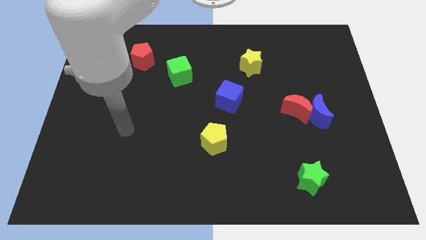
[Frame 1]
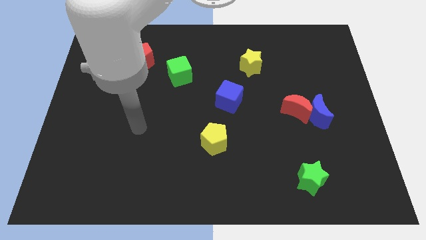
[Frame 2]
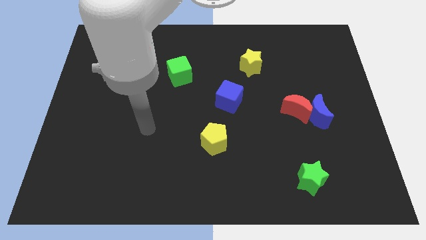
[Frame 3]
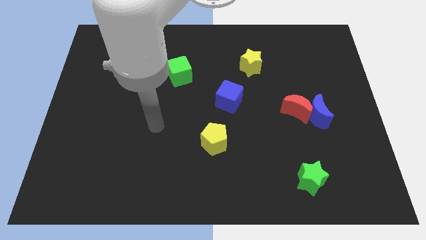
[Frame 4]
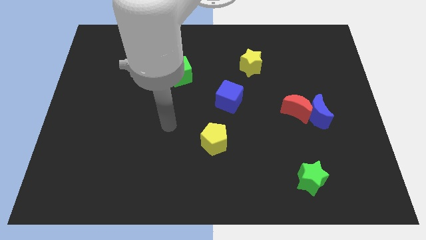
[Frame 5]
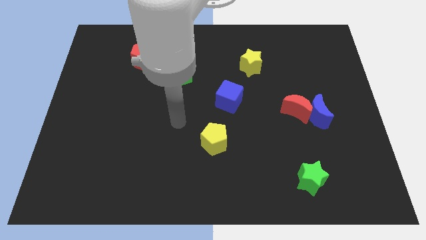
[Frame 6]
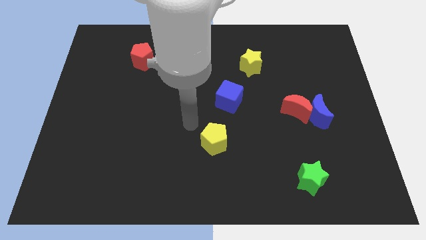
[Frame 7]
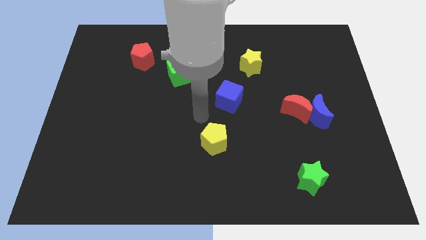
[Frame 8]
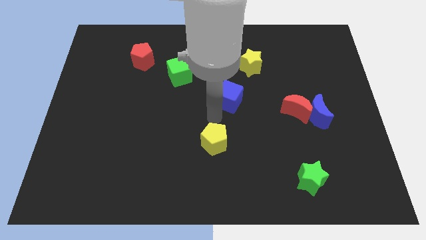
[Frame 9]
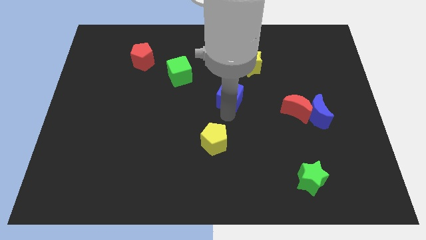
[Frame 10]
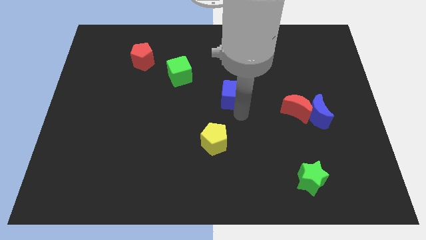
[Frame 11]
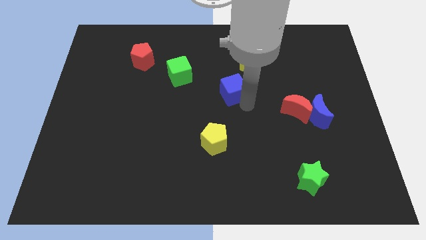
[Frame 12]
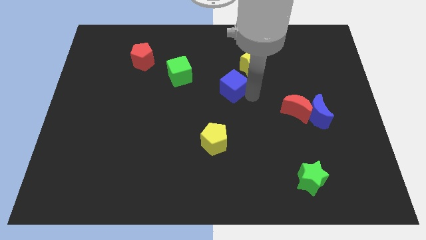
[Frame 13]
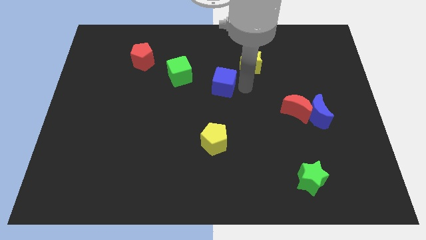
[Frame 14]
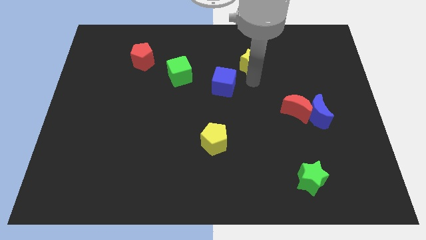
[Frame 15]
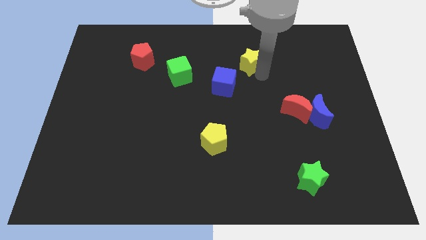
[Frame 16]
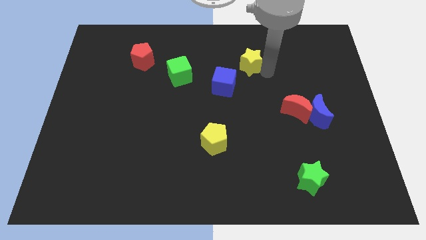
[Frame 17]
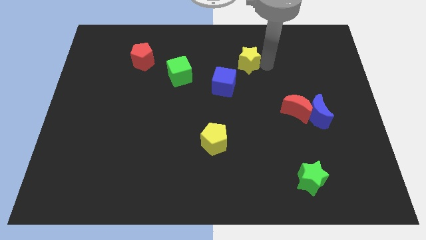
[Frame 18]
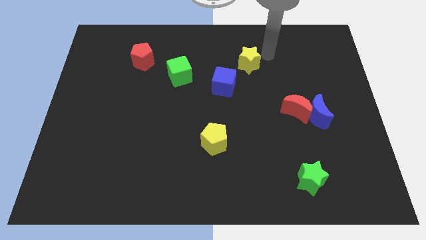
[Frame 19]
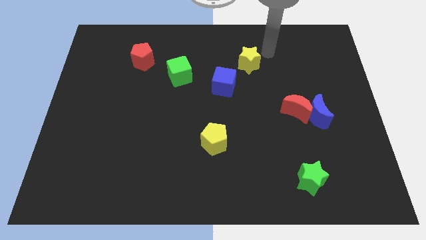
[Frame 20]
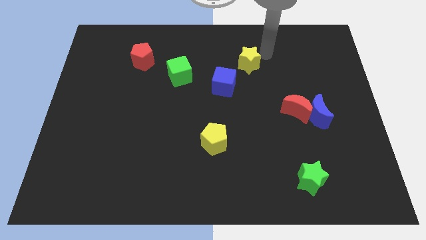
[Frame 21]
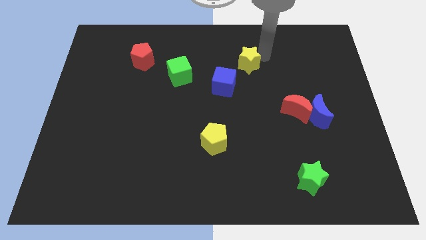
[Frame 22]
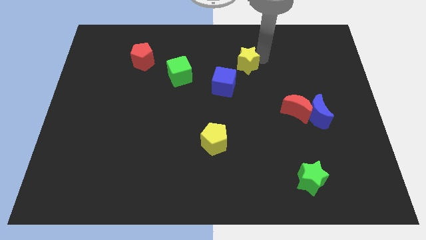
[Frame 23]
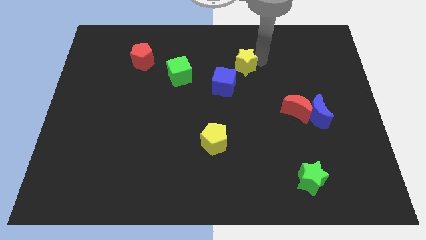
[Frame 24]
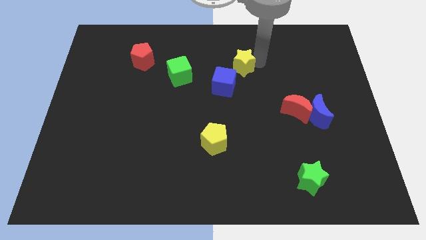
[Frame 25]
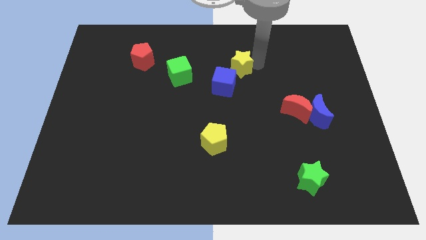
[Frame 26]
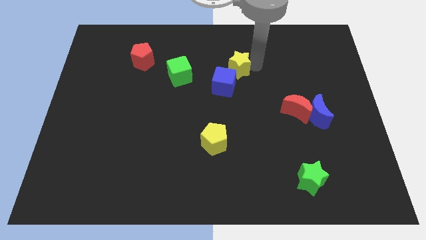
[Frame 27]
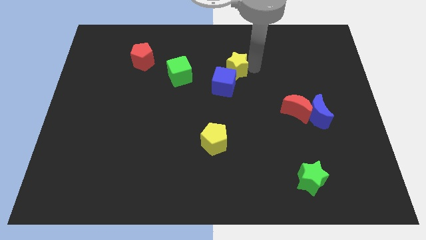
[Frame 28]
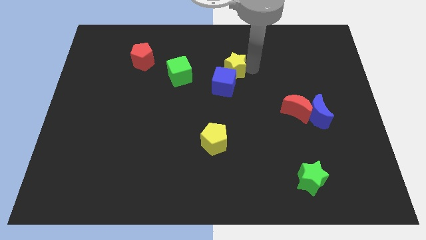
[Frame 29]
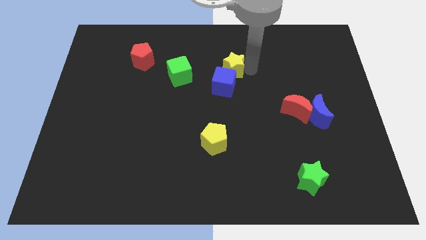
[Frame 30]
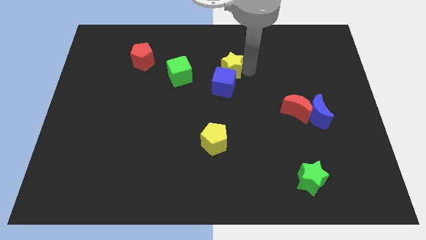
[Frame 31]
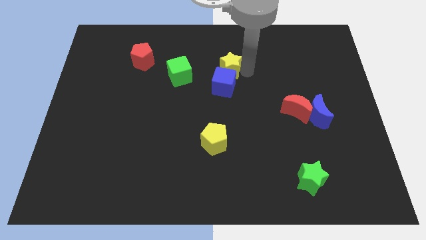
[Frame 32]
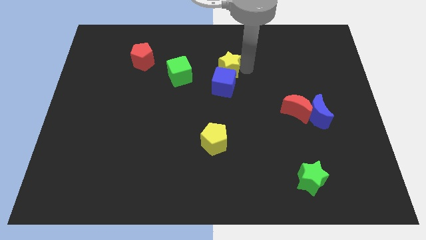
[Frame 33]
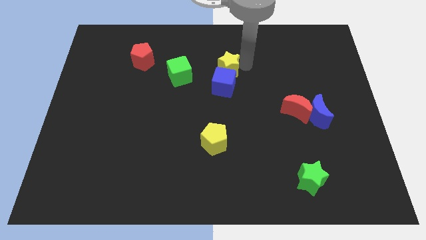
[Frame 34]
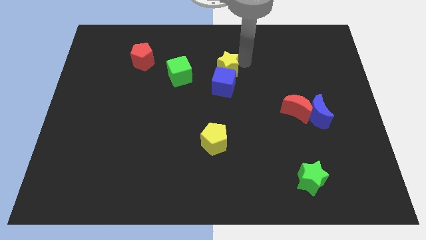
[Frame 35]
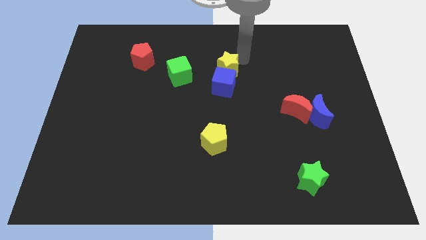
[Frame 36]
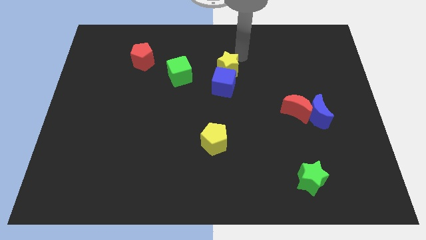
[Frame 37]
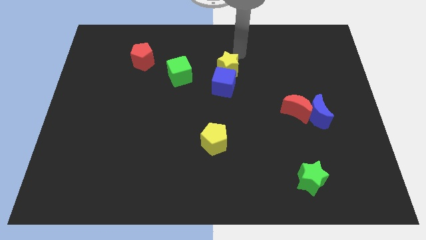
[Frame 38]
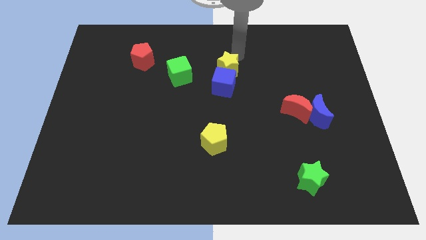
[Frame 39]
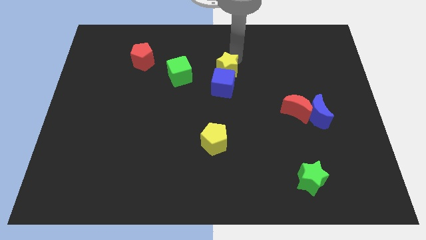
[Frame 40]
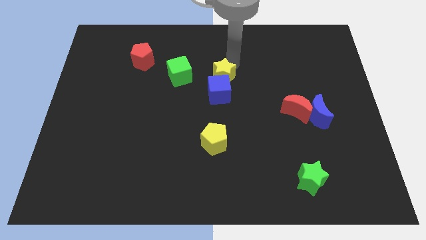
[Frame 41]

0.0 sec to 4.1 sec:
slightly push the yellow star downwards and left diagonally

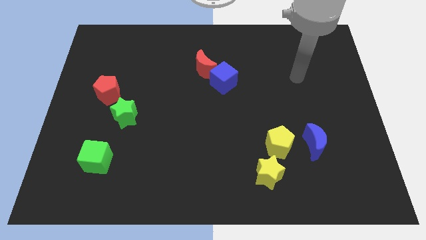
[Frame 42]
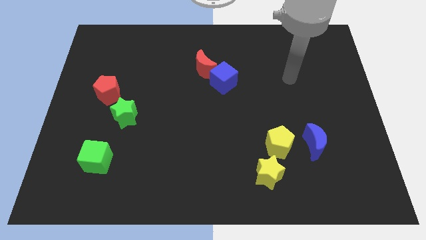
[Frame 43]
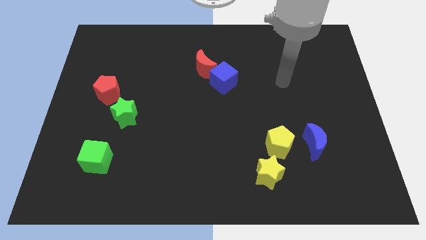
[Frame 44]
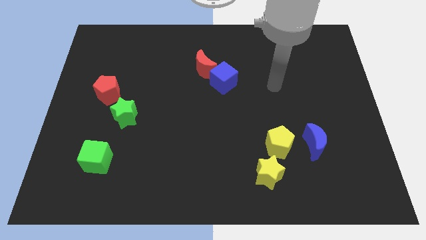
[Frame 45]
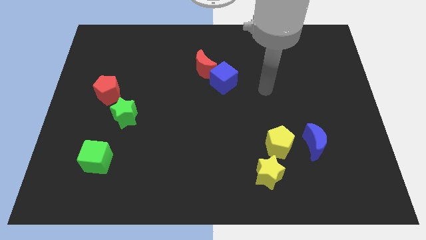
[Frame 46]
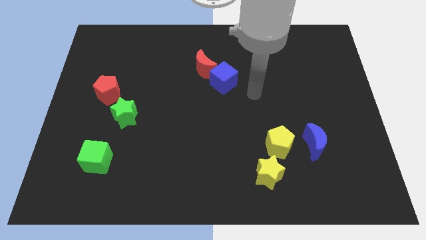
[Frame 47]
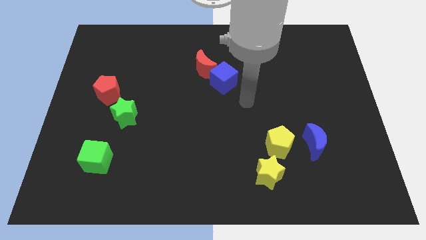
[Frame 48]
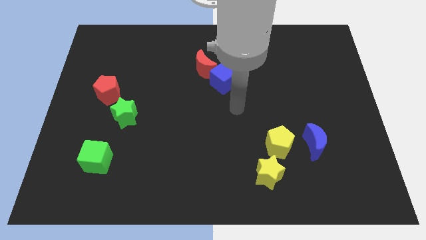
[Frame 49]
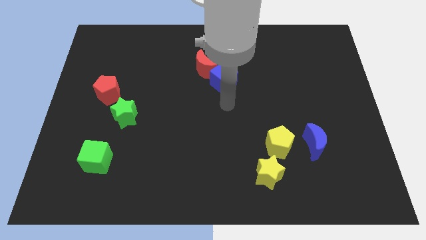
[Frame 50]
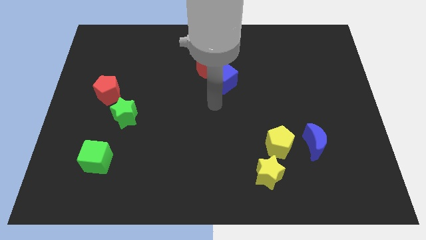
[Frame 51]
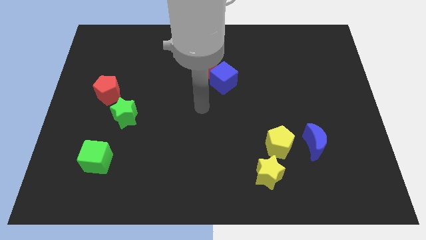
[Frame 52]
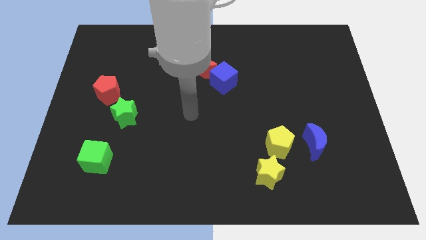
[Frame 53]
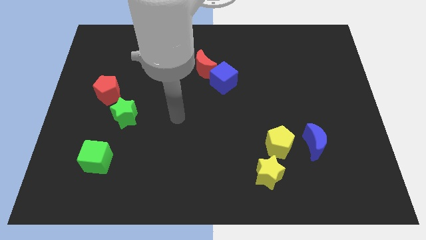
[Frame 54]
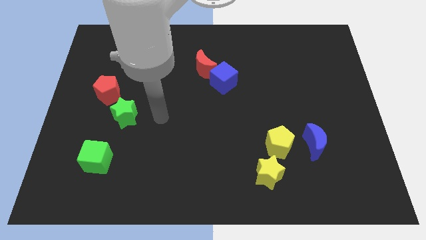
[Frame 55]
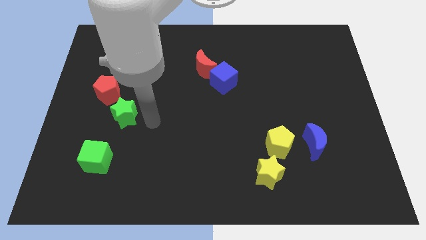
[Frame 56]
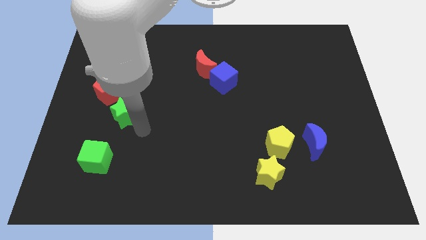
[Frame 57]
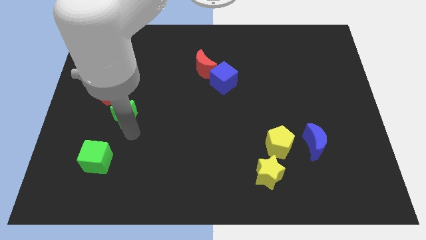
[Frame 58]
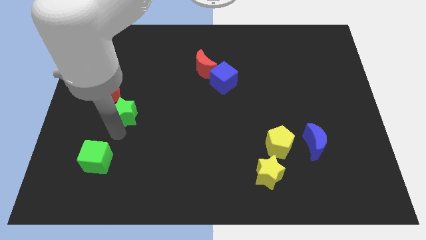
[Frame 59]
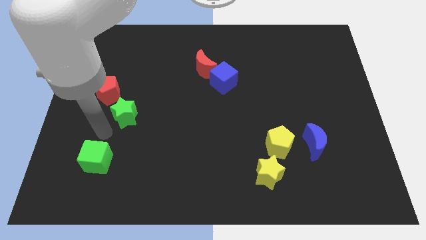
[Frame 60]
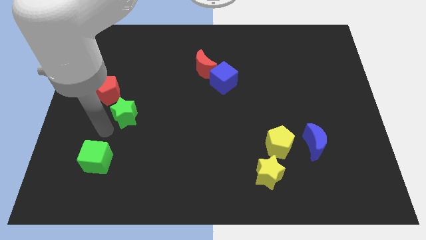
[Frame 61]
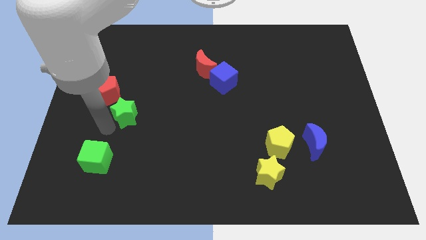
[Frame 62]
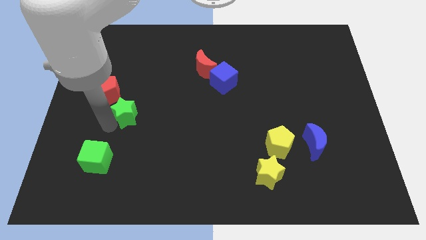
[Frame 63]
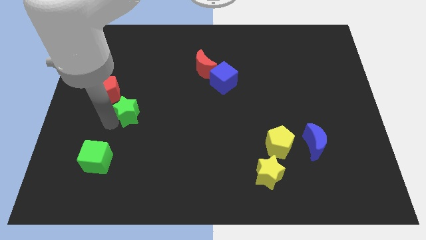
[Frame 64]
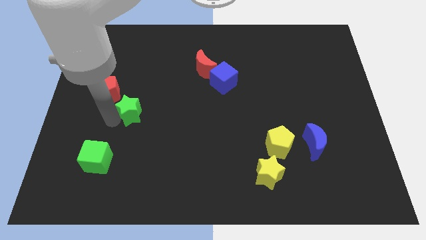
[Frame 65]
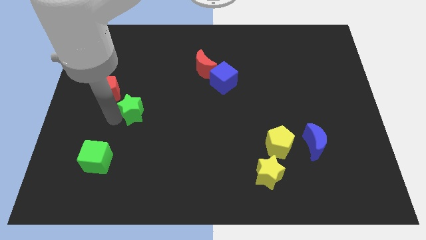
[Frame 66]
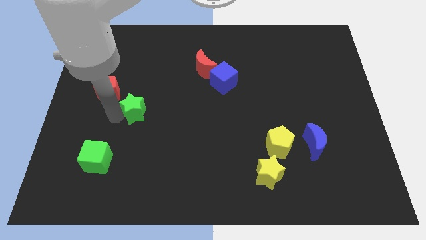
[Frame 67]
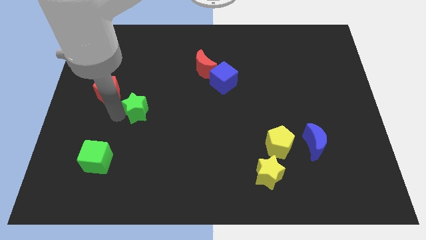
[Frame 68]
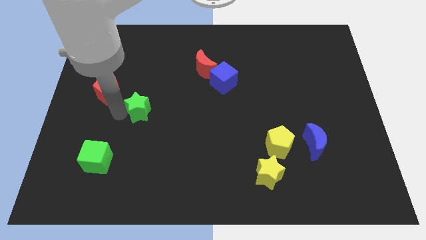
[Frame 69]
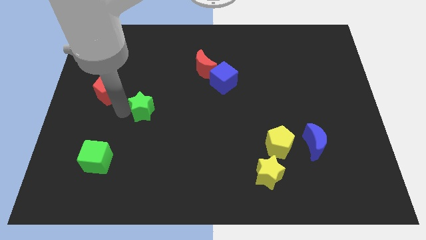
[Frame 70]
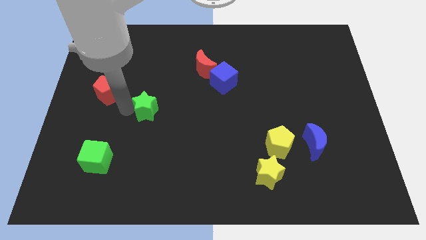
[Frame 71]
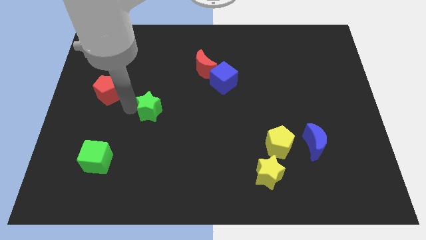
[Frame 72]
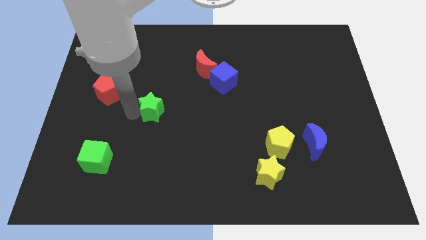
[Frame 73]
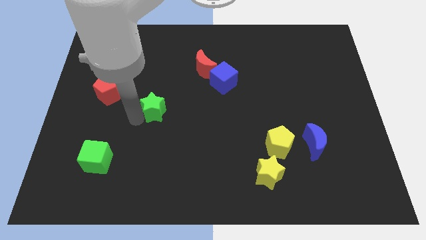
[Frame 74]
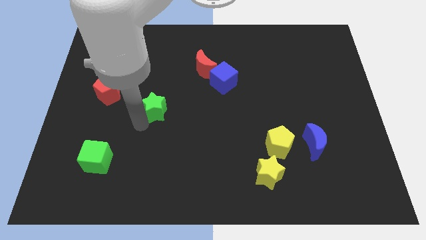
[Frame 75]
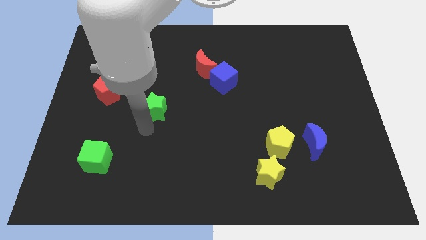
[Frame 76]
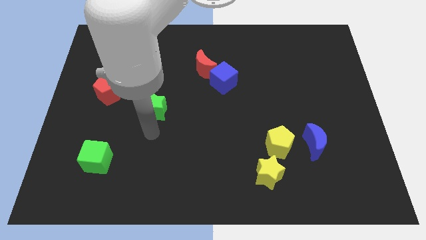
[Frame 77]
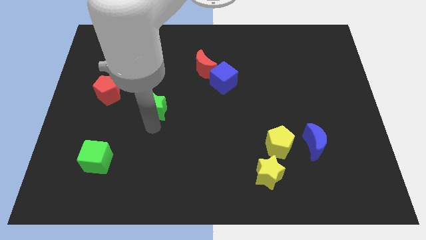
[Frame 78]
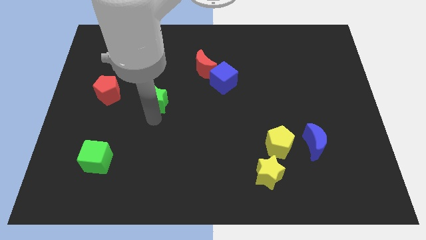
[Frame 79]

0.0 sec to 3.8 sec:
push the green star up and right diagonally slightly

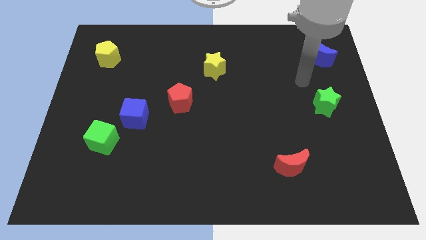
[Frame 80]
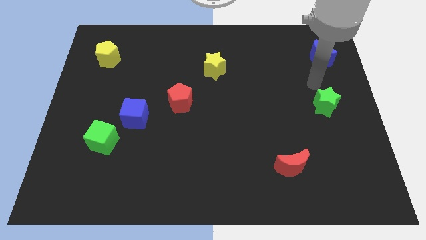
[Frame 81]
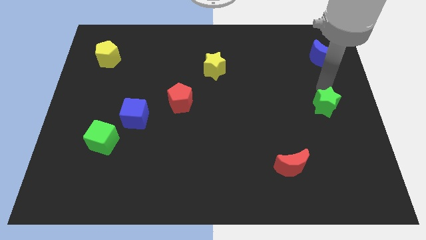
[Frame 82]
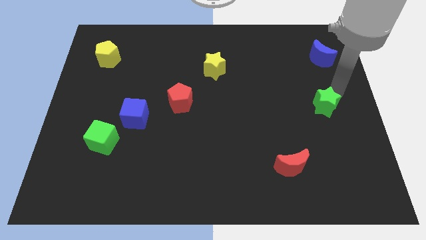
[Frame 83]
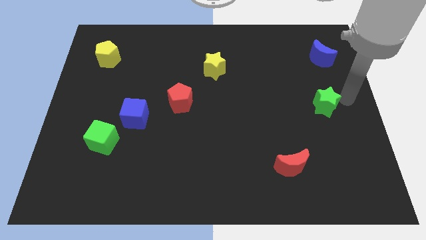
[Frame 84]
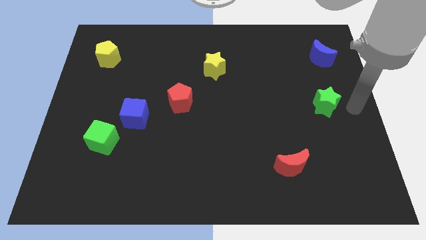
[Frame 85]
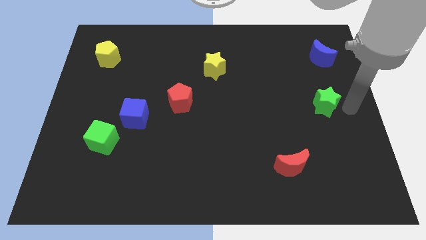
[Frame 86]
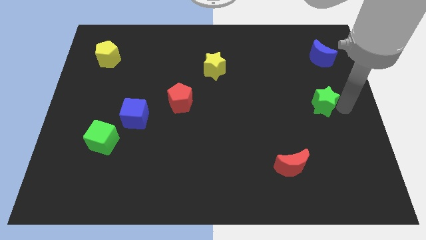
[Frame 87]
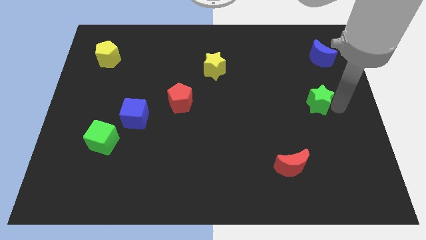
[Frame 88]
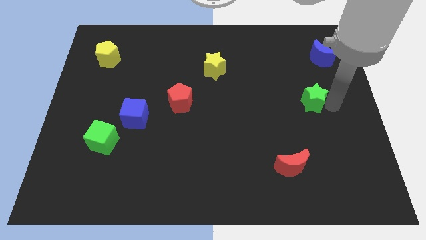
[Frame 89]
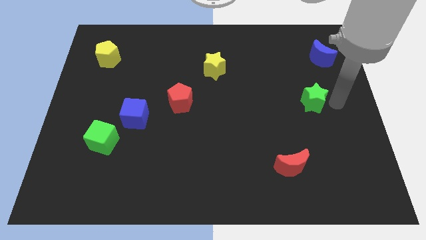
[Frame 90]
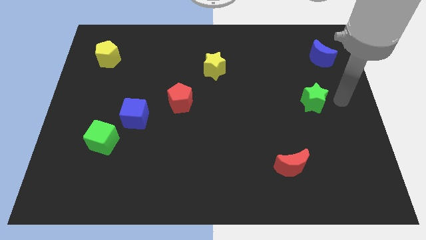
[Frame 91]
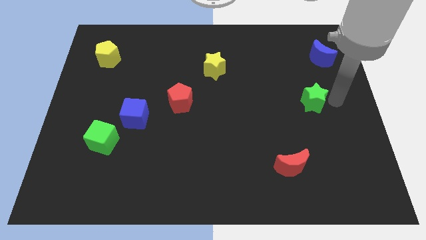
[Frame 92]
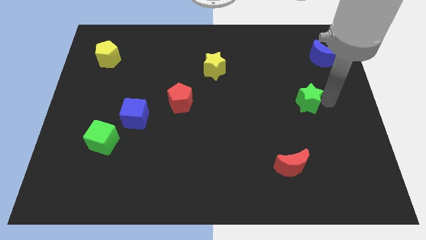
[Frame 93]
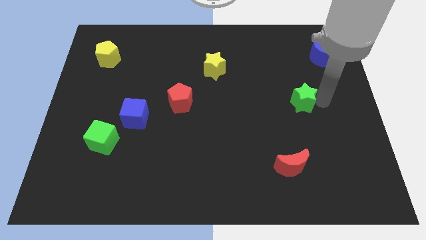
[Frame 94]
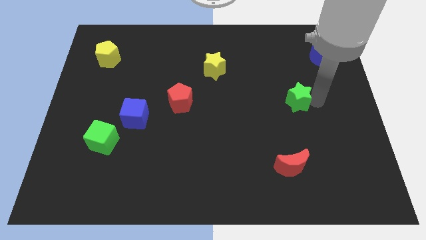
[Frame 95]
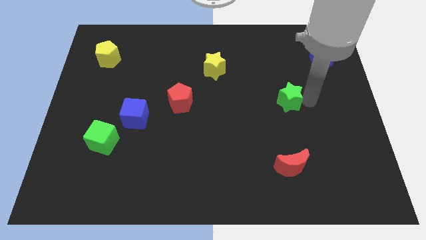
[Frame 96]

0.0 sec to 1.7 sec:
slide the green star a little bit left
